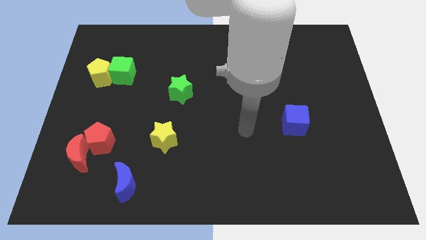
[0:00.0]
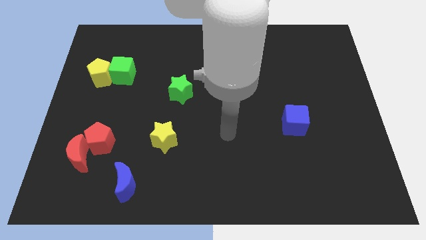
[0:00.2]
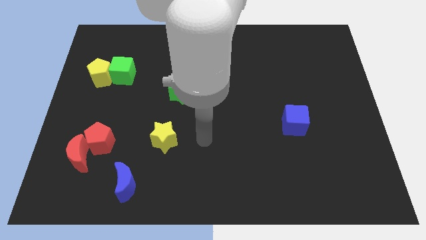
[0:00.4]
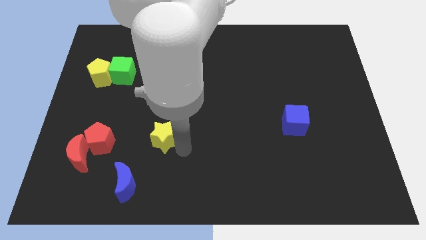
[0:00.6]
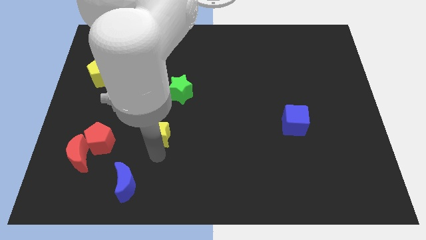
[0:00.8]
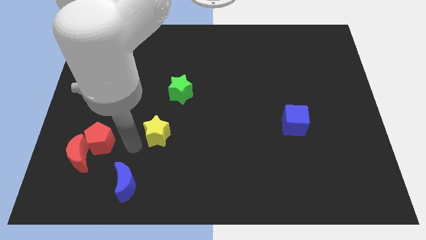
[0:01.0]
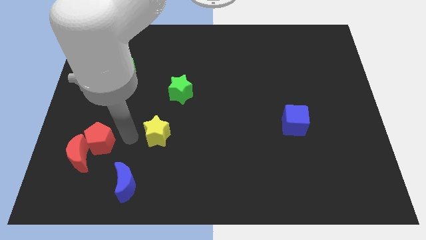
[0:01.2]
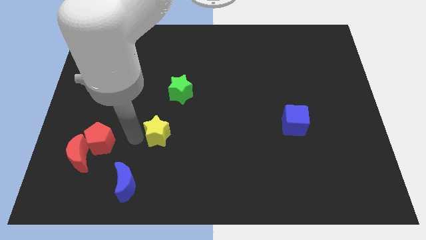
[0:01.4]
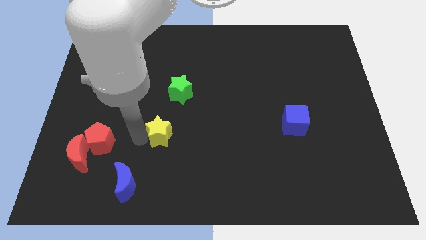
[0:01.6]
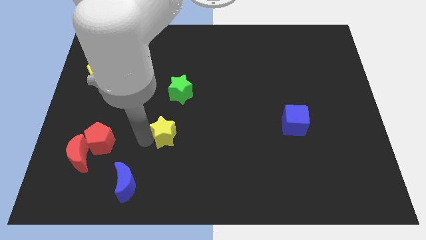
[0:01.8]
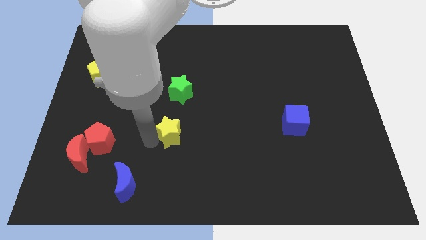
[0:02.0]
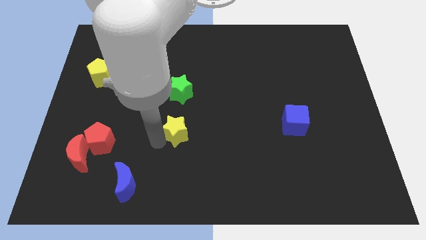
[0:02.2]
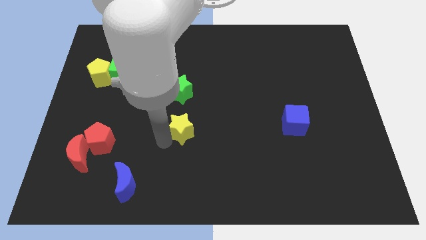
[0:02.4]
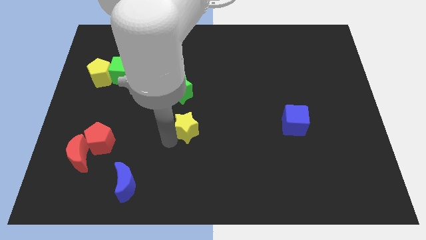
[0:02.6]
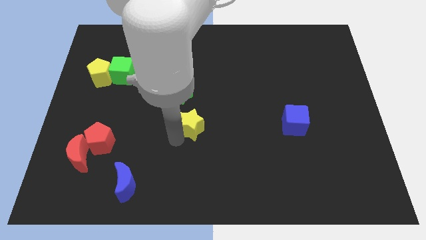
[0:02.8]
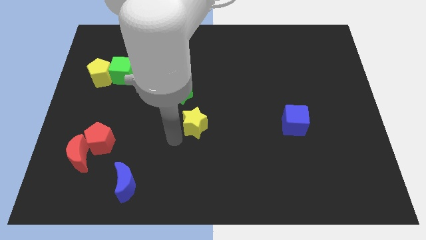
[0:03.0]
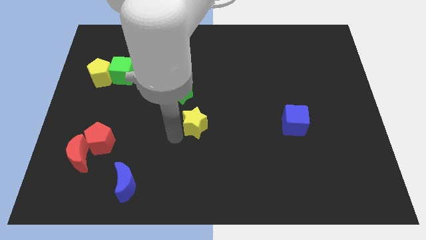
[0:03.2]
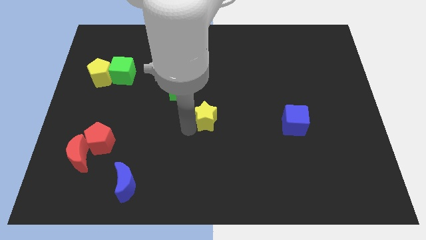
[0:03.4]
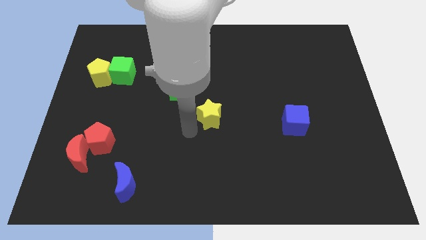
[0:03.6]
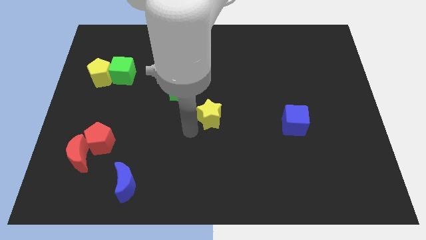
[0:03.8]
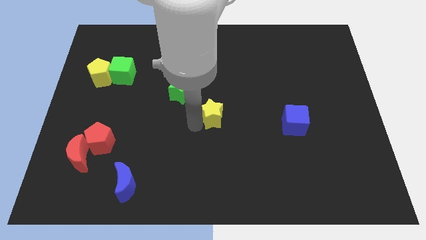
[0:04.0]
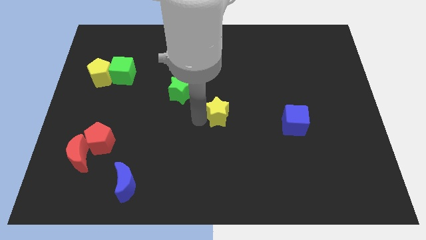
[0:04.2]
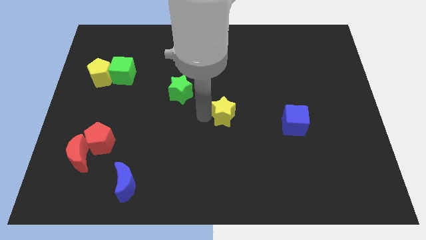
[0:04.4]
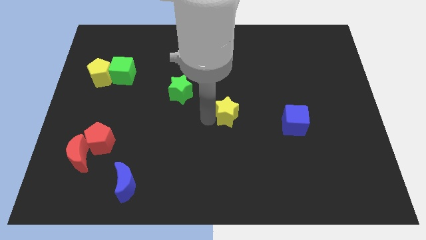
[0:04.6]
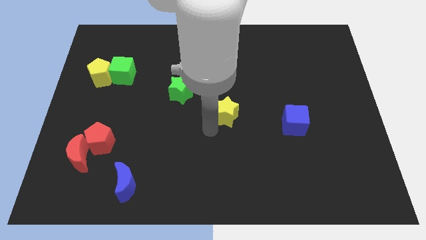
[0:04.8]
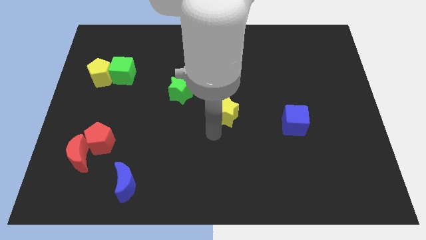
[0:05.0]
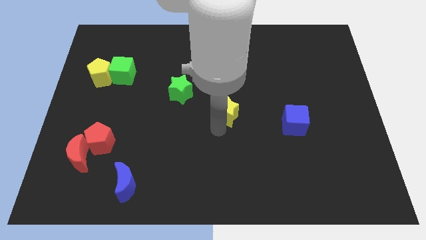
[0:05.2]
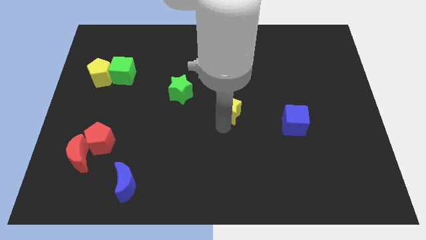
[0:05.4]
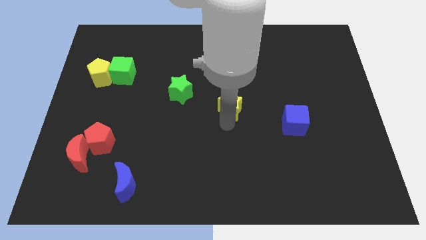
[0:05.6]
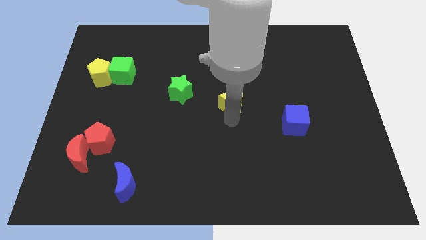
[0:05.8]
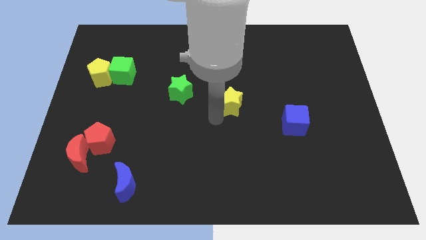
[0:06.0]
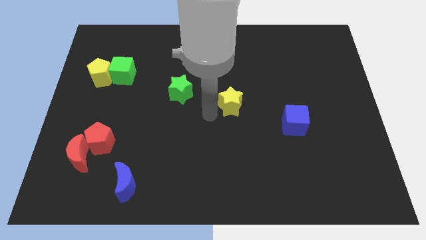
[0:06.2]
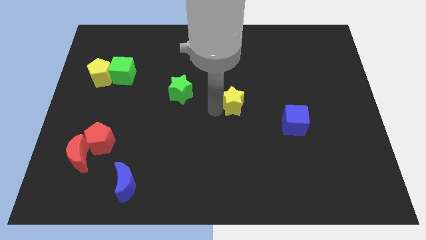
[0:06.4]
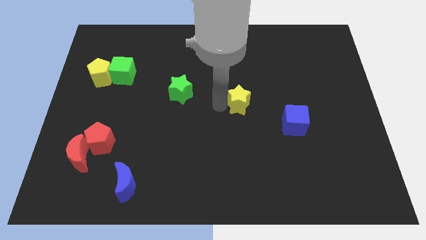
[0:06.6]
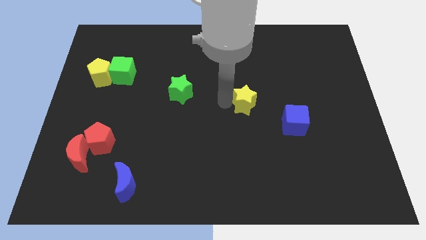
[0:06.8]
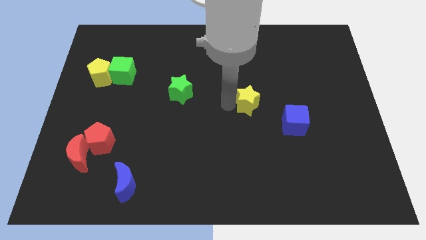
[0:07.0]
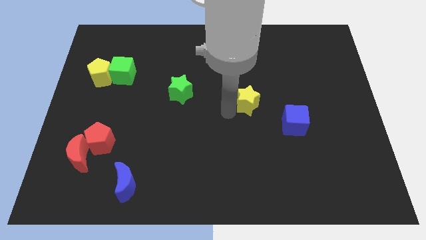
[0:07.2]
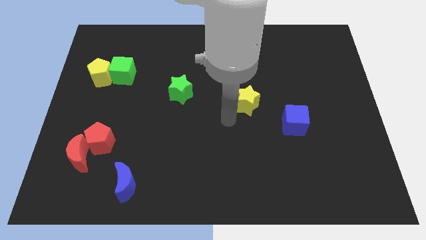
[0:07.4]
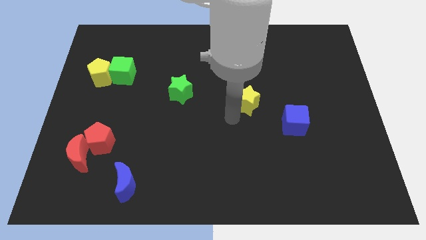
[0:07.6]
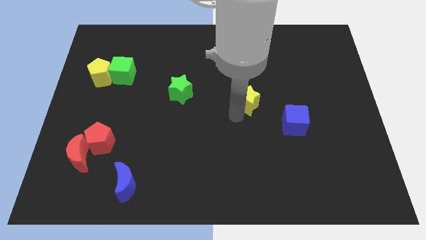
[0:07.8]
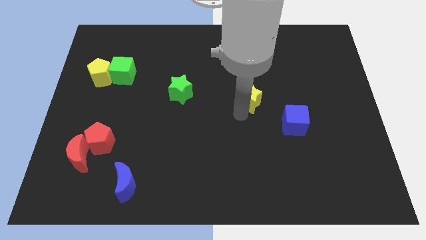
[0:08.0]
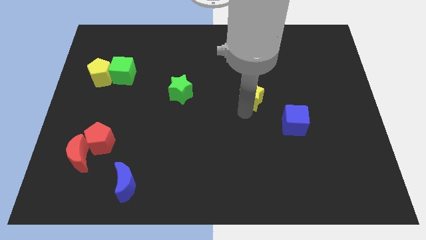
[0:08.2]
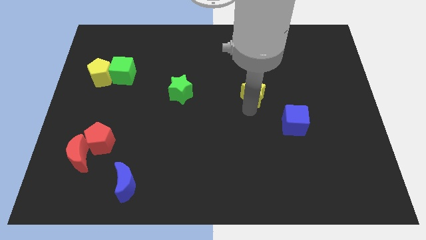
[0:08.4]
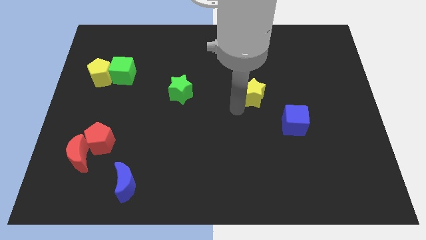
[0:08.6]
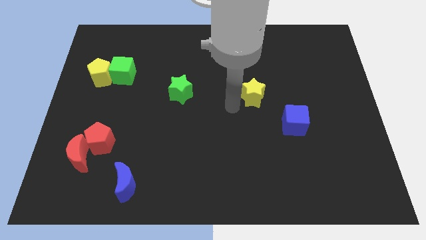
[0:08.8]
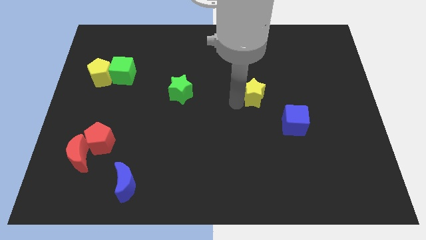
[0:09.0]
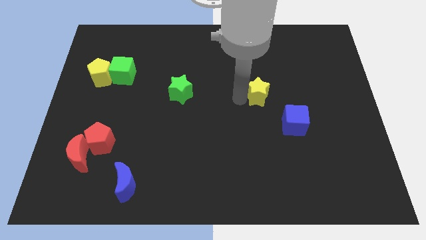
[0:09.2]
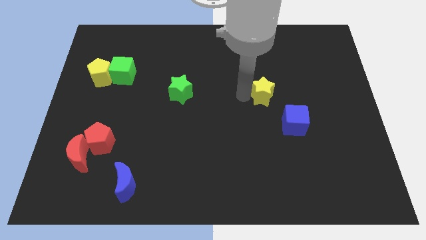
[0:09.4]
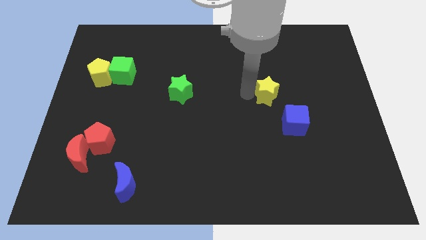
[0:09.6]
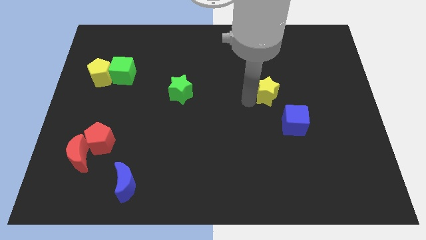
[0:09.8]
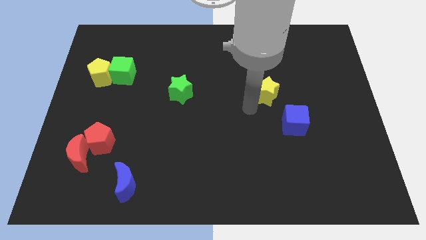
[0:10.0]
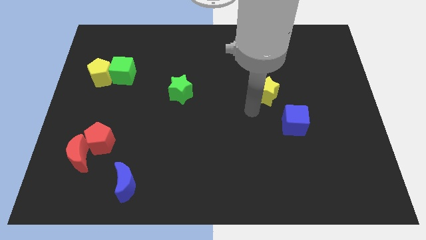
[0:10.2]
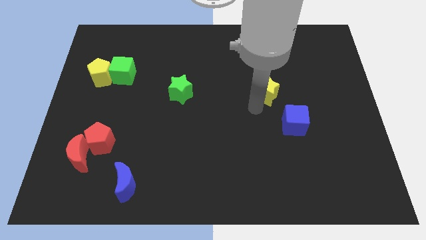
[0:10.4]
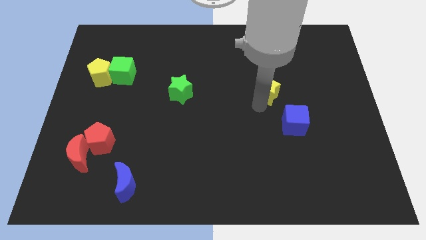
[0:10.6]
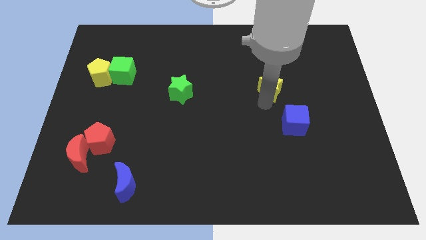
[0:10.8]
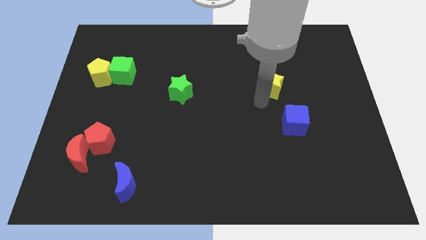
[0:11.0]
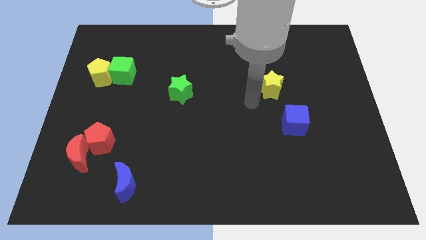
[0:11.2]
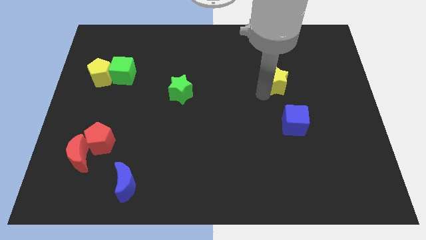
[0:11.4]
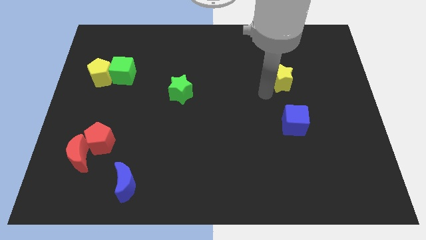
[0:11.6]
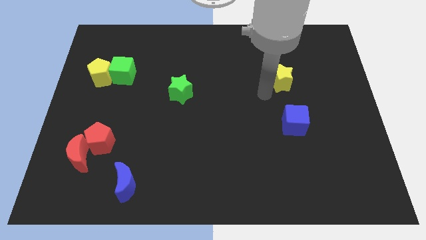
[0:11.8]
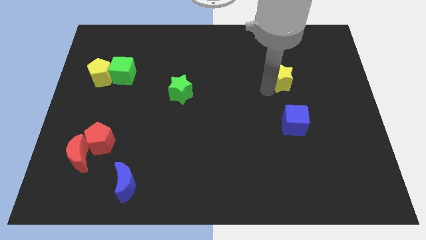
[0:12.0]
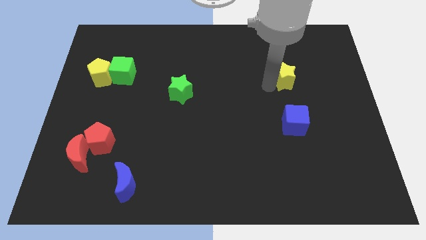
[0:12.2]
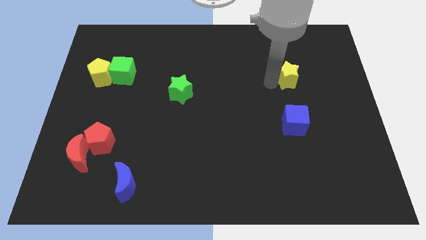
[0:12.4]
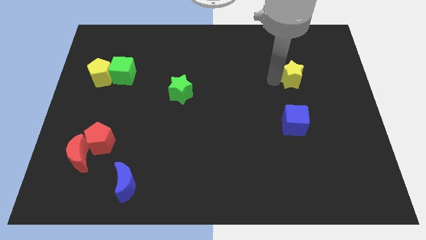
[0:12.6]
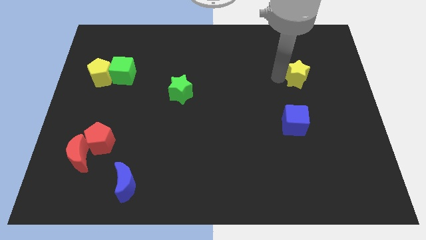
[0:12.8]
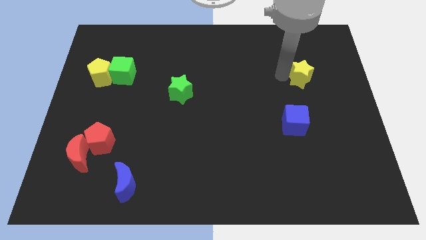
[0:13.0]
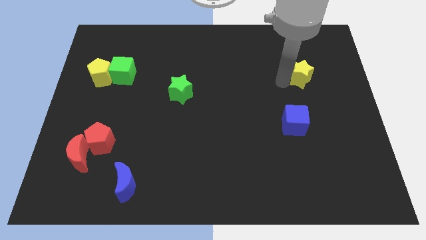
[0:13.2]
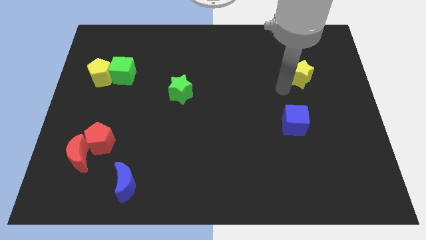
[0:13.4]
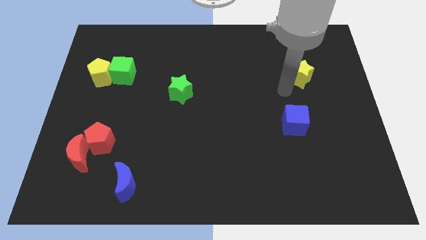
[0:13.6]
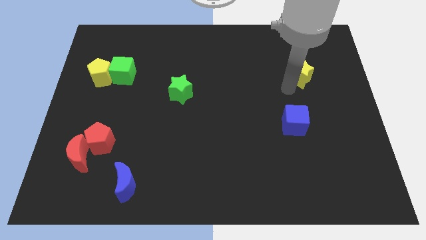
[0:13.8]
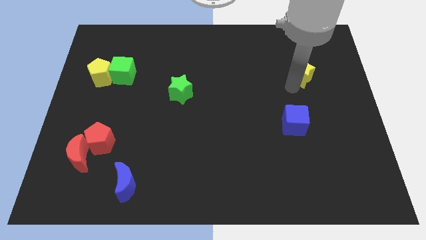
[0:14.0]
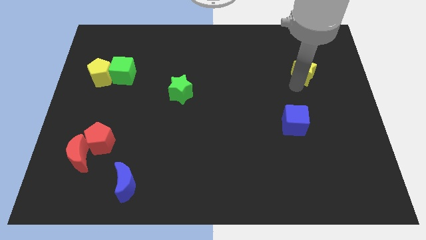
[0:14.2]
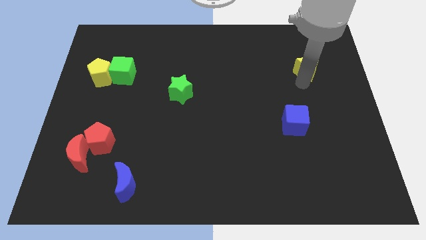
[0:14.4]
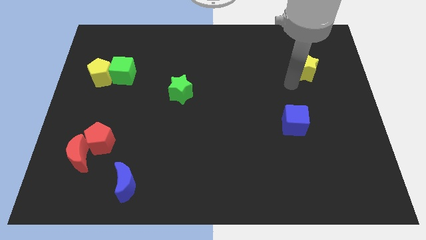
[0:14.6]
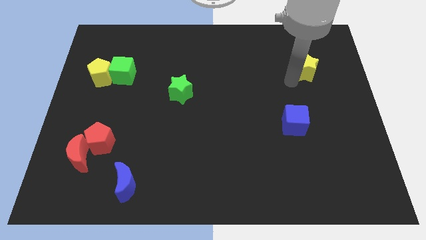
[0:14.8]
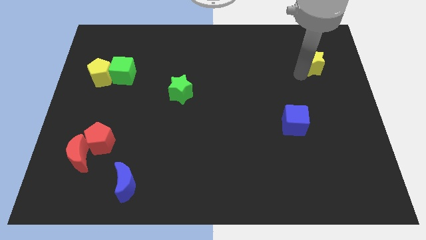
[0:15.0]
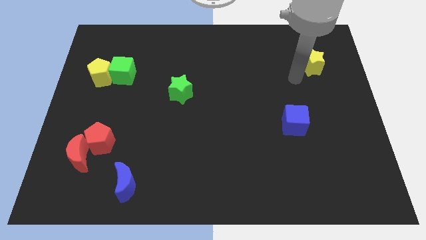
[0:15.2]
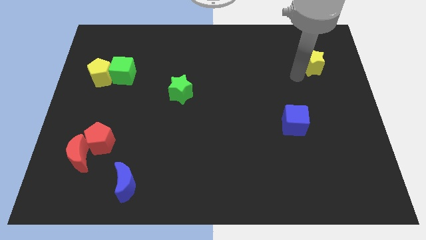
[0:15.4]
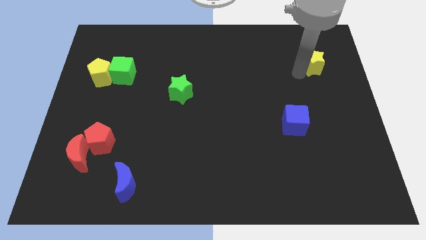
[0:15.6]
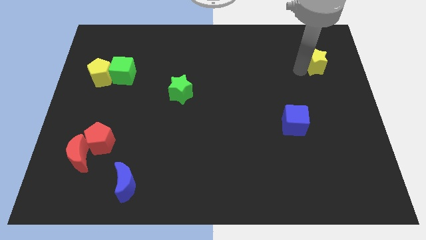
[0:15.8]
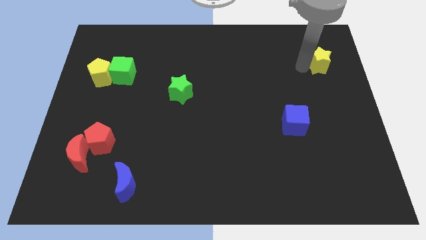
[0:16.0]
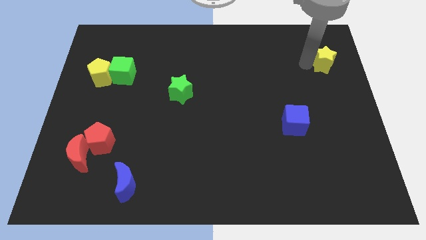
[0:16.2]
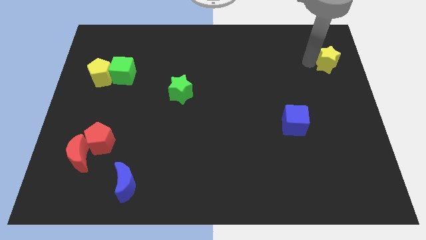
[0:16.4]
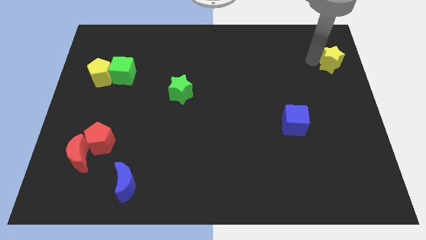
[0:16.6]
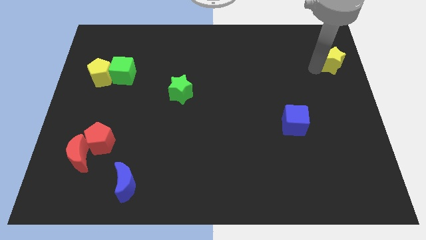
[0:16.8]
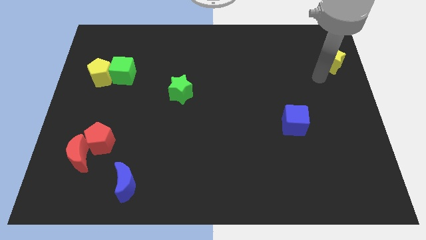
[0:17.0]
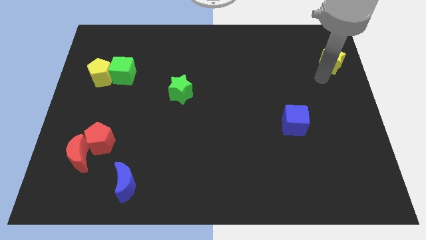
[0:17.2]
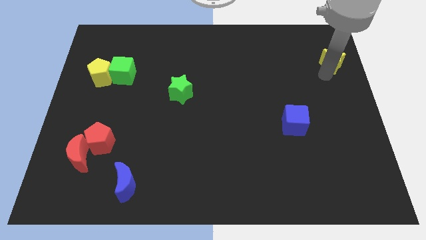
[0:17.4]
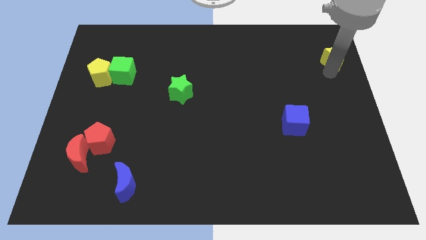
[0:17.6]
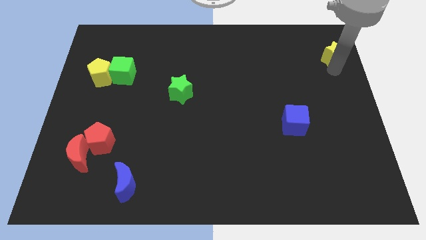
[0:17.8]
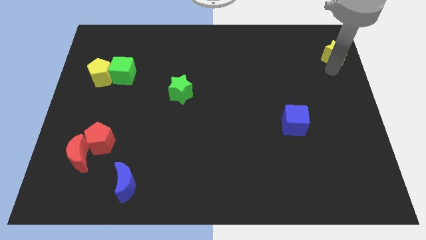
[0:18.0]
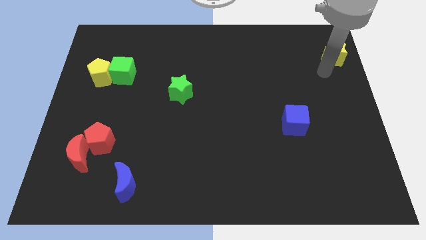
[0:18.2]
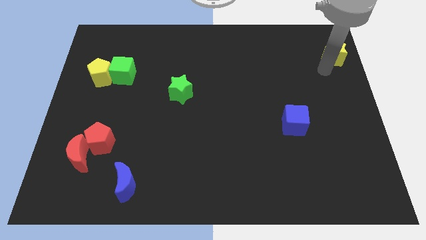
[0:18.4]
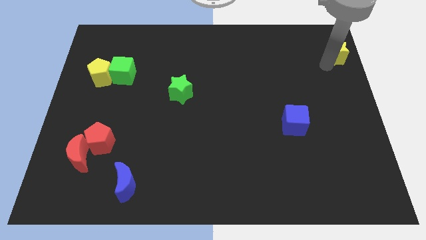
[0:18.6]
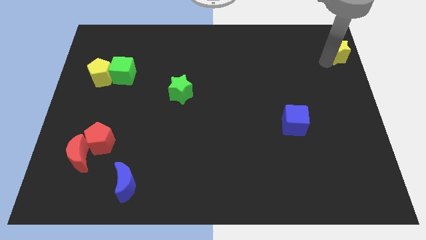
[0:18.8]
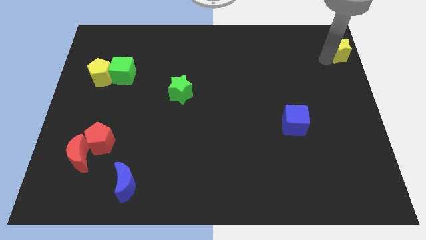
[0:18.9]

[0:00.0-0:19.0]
slide the yellow star to the top right corner
